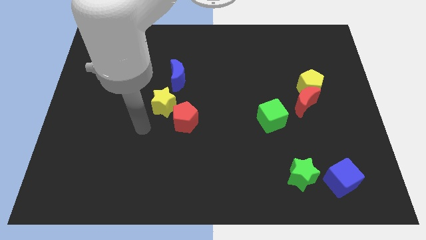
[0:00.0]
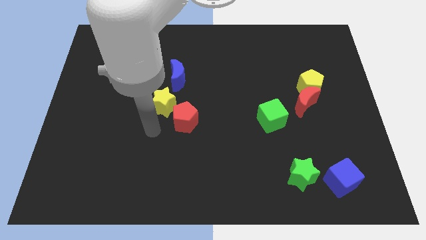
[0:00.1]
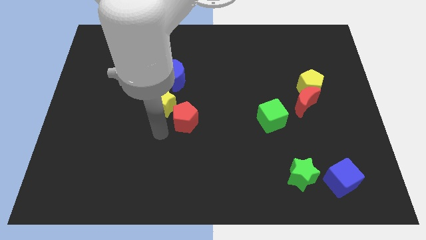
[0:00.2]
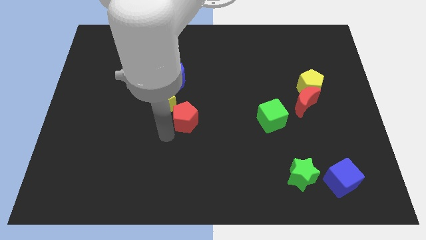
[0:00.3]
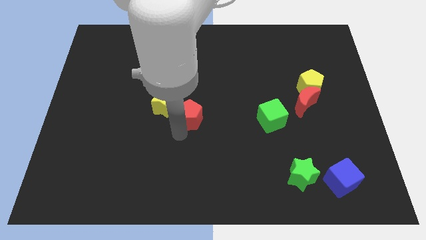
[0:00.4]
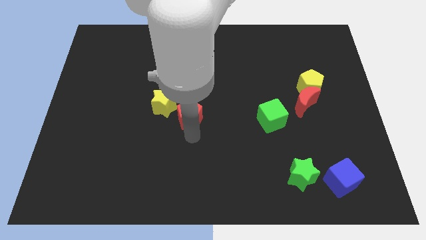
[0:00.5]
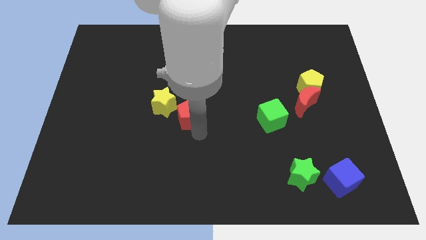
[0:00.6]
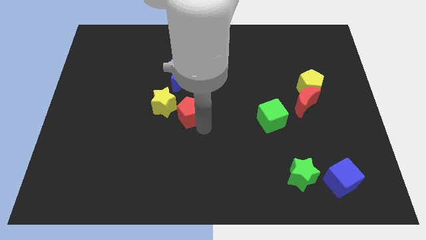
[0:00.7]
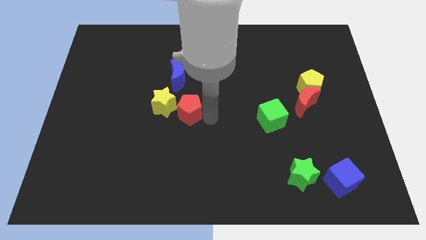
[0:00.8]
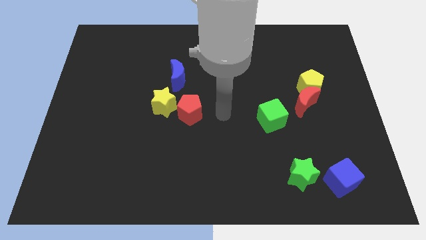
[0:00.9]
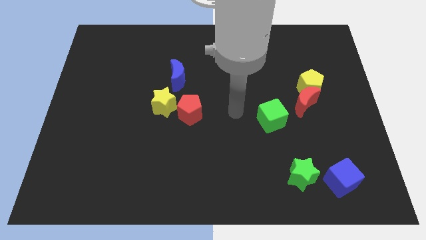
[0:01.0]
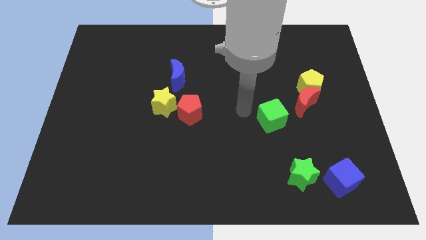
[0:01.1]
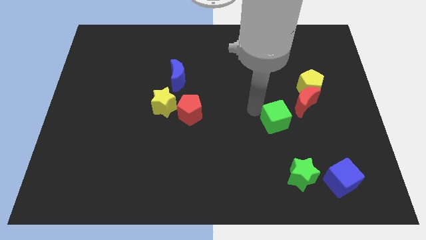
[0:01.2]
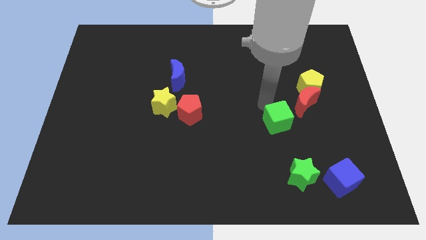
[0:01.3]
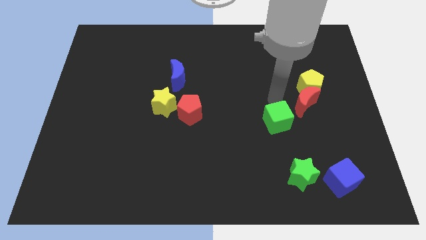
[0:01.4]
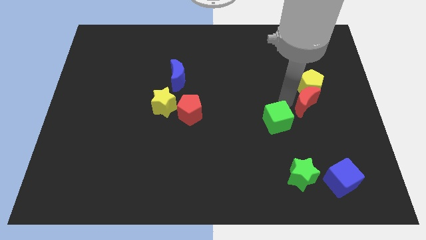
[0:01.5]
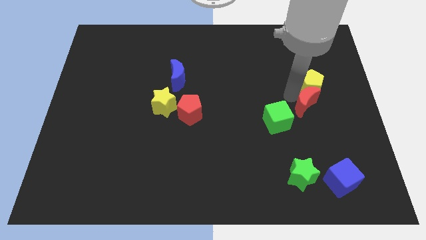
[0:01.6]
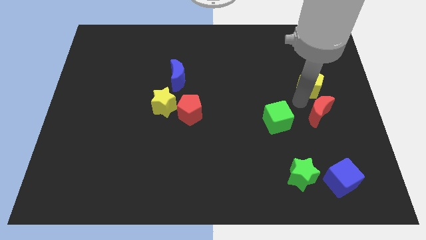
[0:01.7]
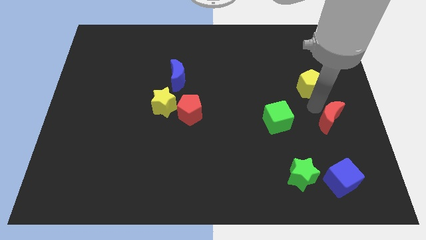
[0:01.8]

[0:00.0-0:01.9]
pull the yellow pentagon apart from the red moon

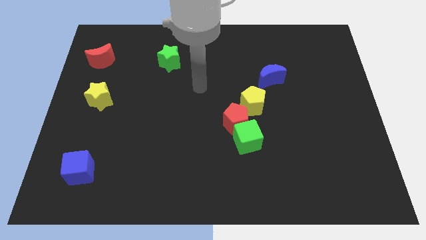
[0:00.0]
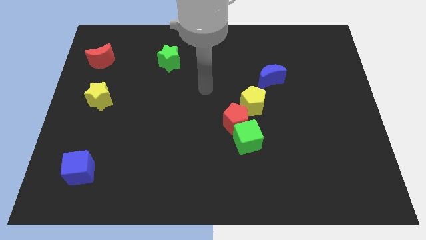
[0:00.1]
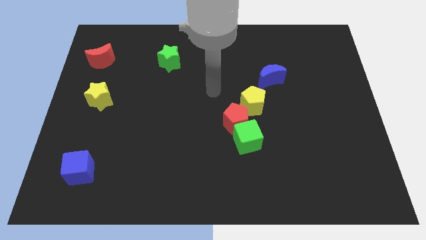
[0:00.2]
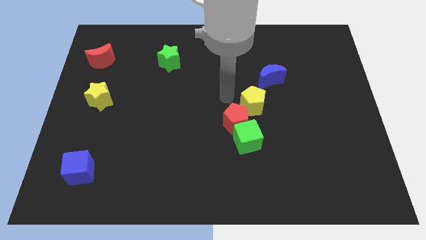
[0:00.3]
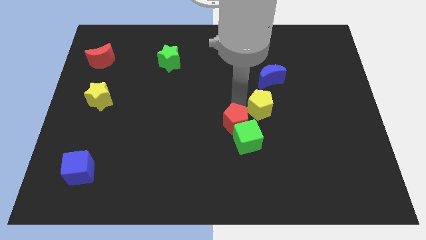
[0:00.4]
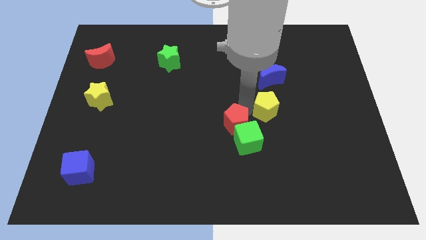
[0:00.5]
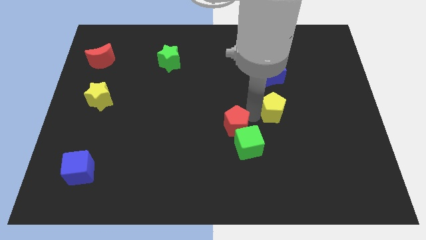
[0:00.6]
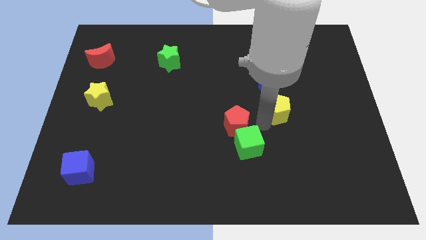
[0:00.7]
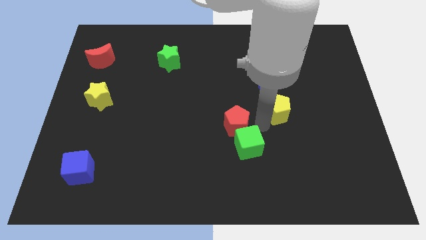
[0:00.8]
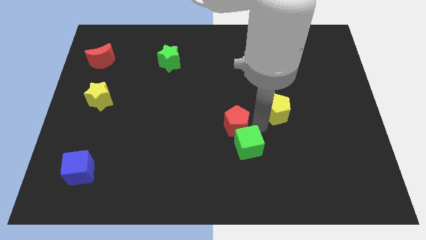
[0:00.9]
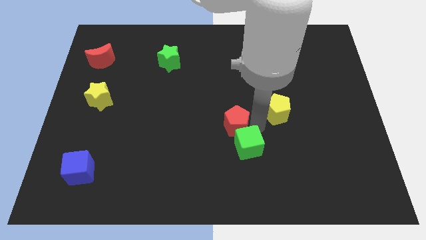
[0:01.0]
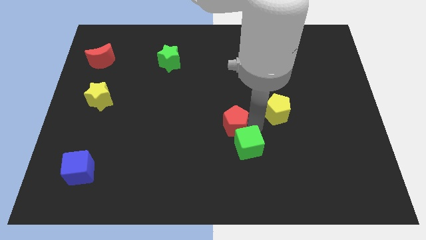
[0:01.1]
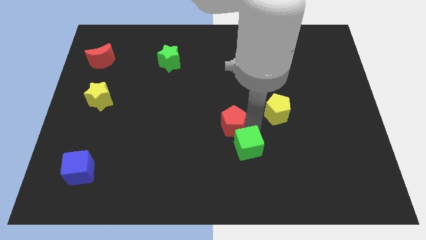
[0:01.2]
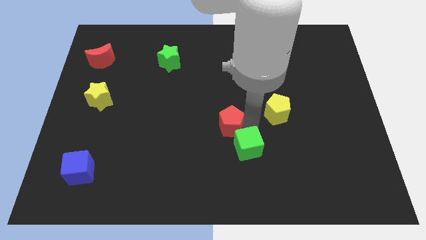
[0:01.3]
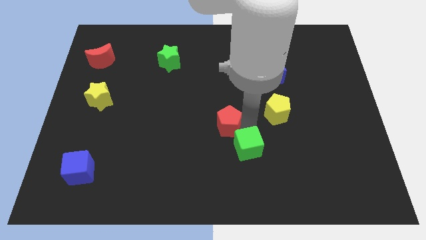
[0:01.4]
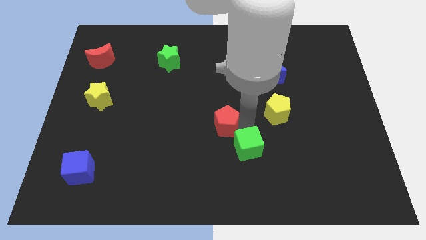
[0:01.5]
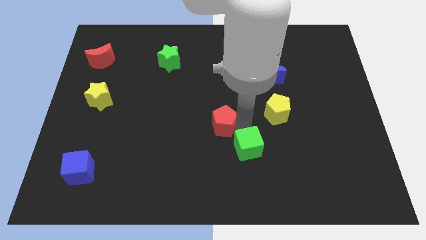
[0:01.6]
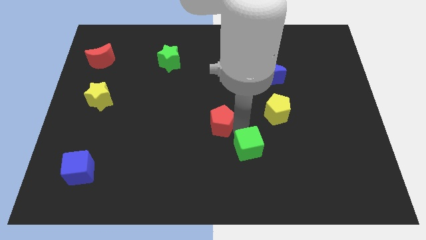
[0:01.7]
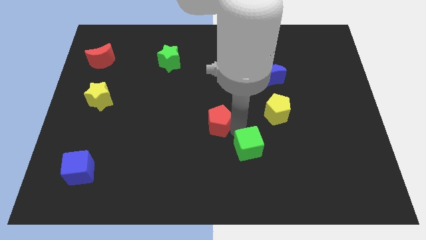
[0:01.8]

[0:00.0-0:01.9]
separate the red pentagon from the green cube and yellow pentagon

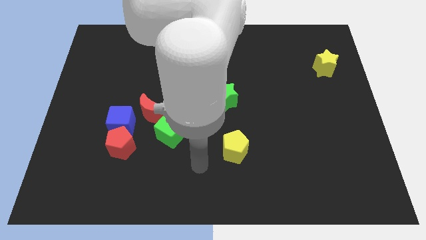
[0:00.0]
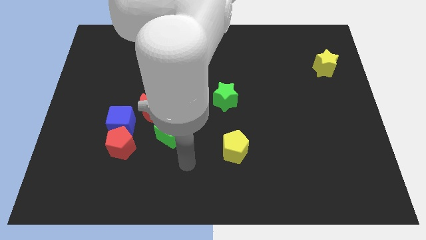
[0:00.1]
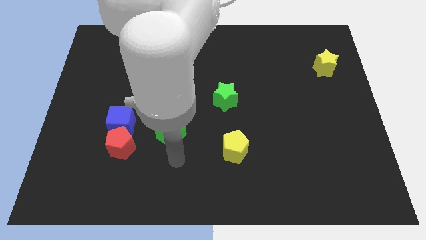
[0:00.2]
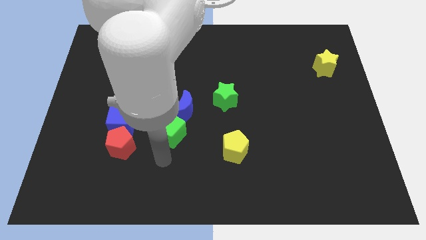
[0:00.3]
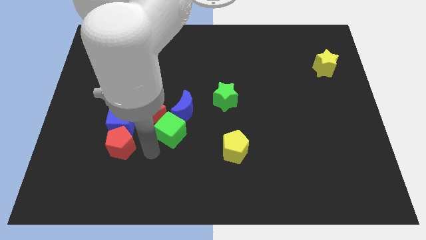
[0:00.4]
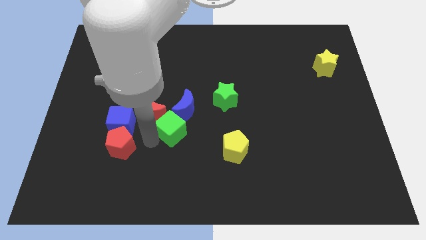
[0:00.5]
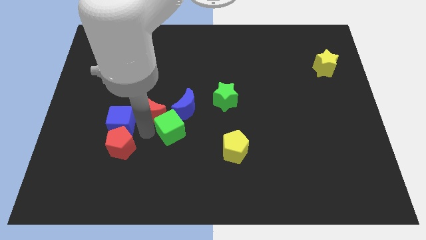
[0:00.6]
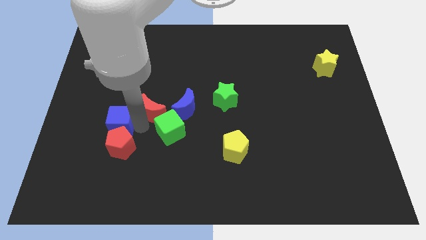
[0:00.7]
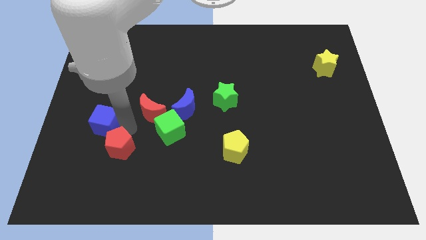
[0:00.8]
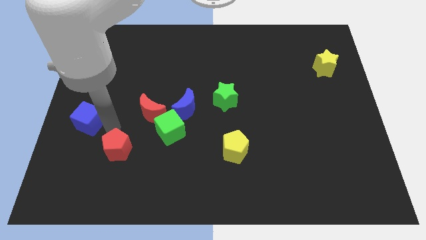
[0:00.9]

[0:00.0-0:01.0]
separate the red pentagon from the blue cube

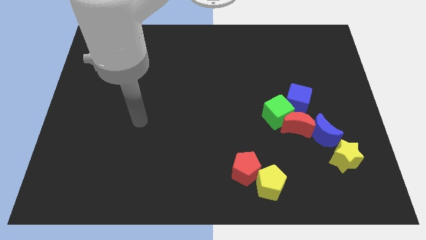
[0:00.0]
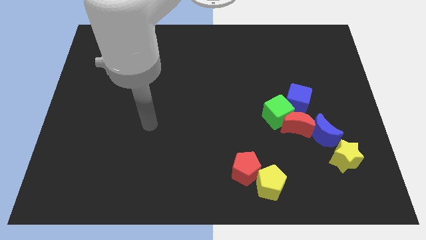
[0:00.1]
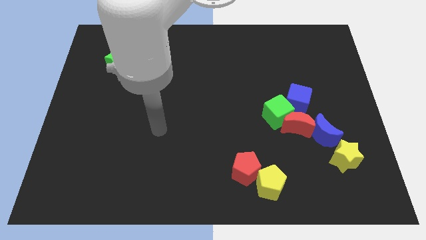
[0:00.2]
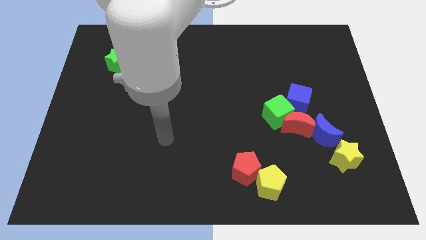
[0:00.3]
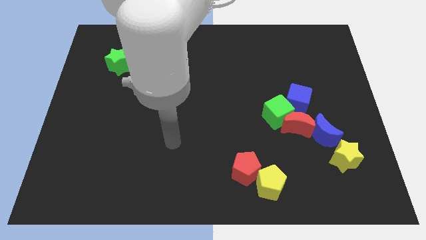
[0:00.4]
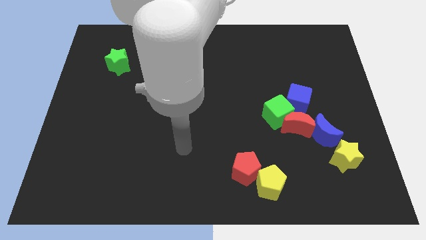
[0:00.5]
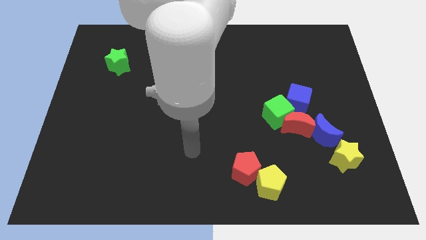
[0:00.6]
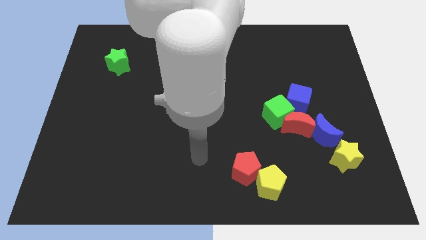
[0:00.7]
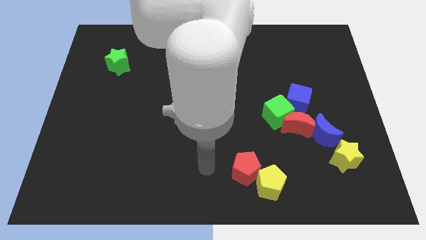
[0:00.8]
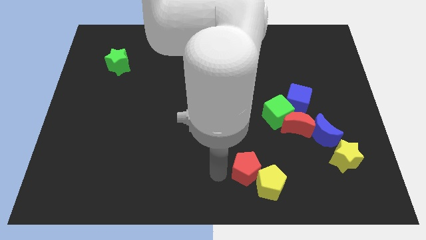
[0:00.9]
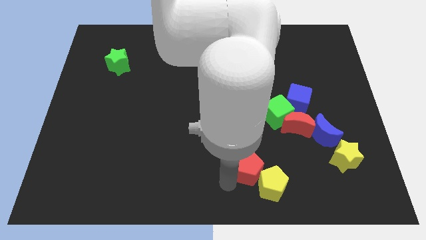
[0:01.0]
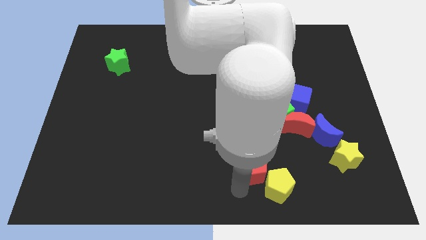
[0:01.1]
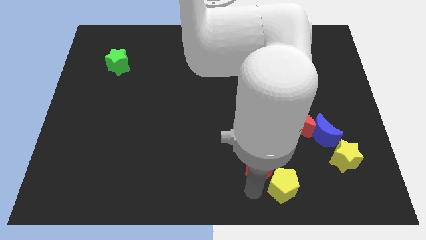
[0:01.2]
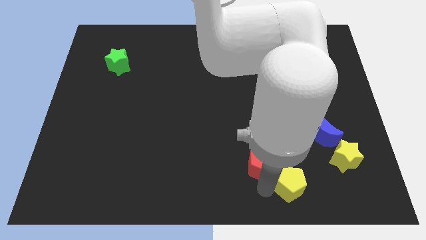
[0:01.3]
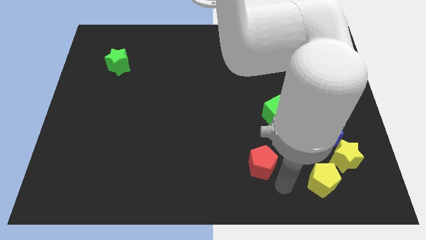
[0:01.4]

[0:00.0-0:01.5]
pull the red pentagon apart from the yellow pentagon

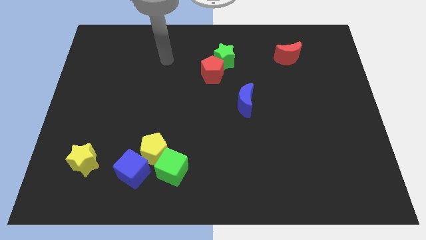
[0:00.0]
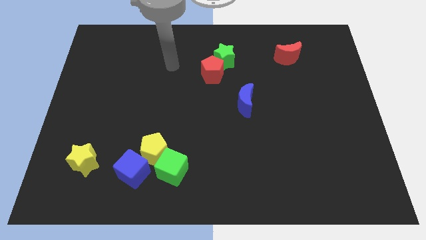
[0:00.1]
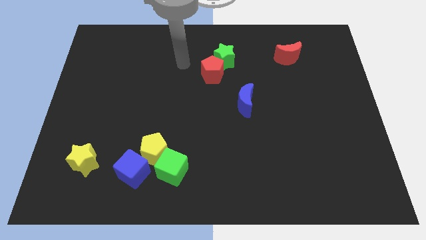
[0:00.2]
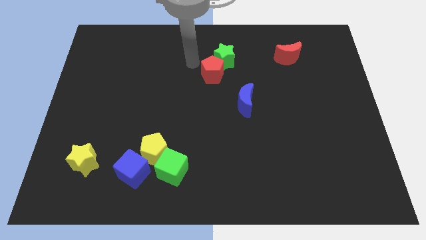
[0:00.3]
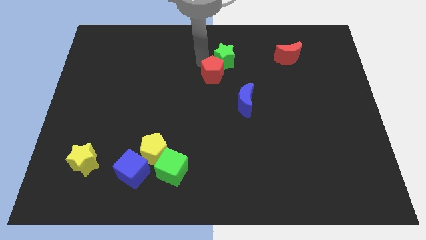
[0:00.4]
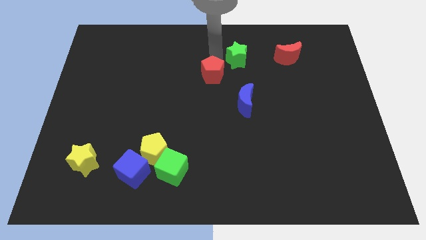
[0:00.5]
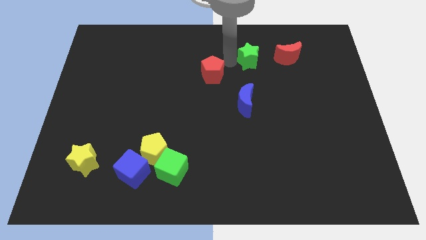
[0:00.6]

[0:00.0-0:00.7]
move the red pentagon away from the green star

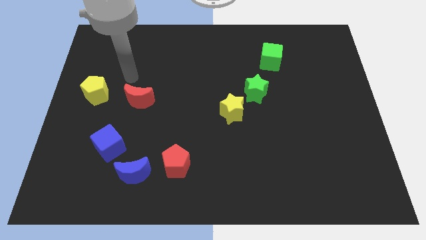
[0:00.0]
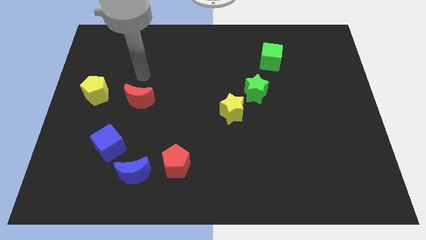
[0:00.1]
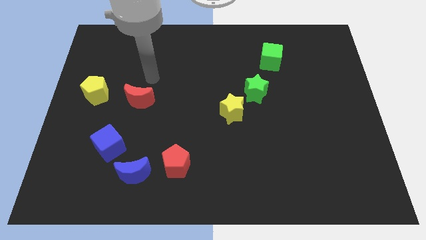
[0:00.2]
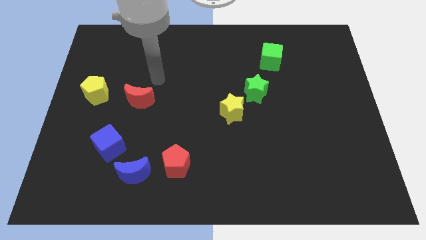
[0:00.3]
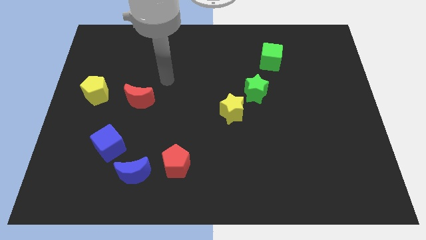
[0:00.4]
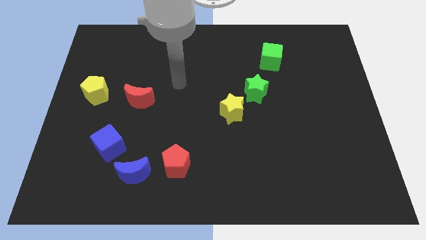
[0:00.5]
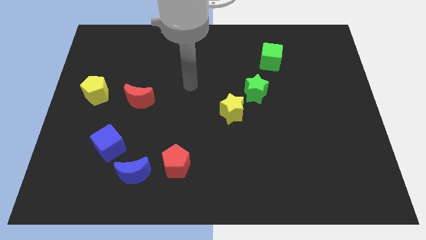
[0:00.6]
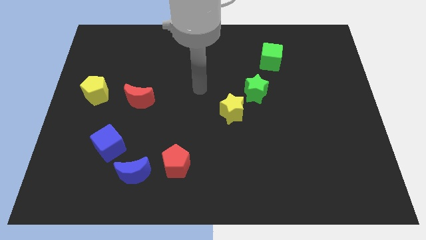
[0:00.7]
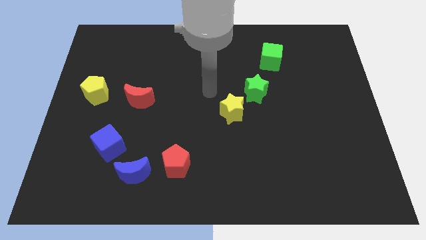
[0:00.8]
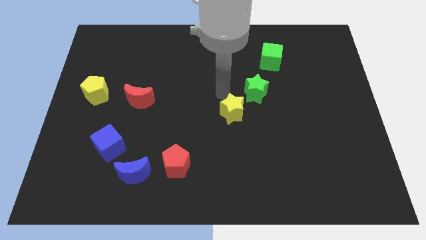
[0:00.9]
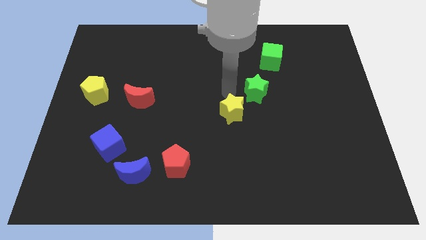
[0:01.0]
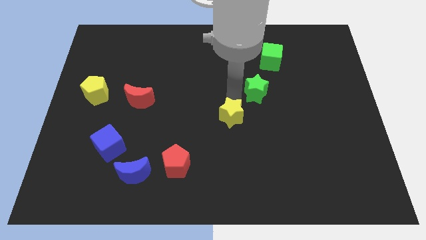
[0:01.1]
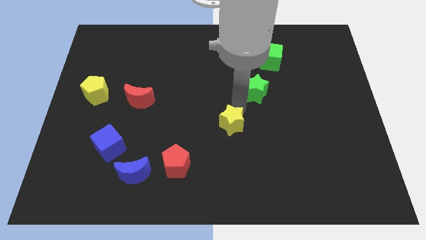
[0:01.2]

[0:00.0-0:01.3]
separate the green star from the yellow star

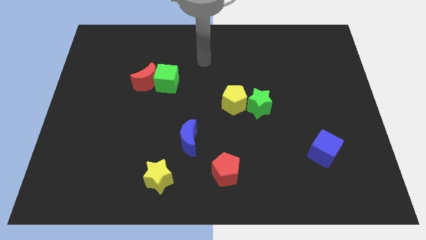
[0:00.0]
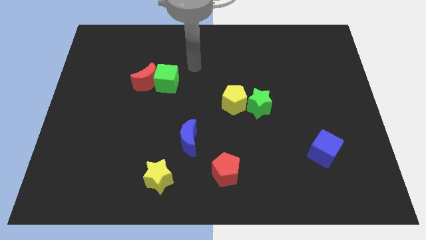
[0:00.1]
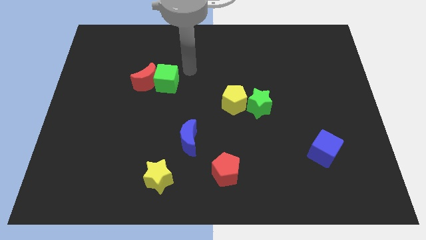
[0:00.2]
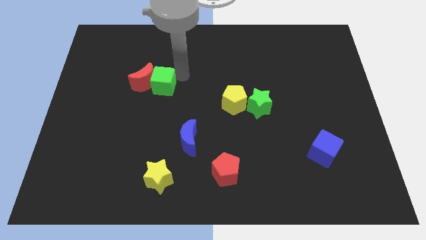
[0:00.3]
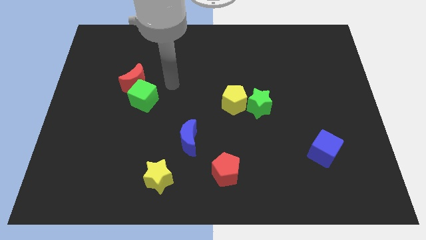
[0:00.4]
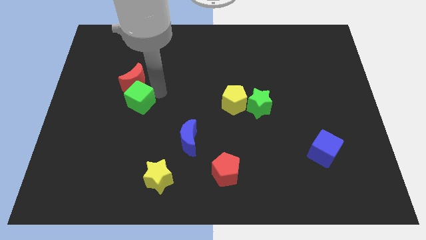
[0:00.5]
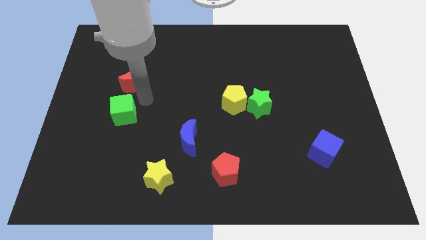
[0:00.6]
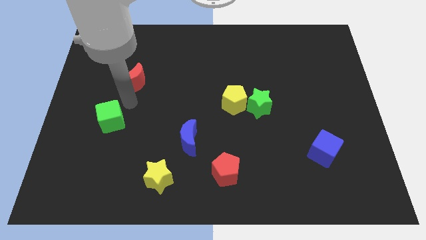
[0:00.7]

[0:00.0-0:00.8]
separate the red moon from the green cube
